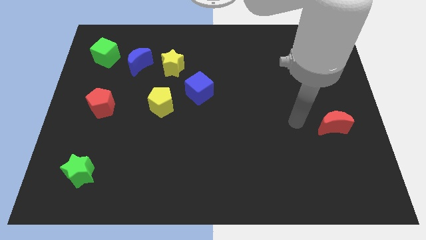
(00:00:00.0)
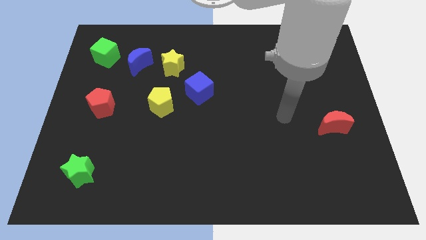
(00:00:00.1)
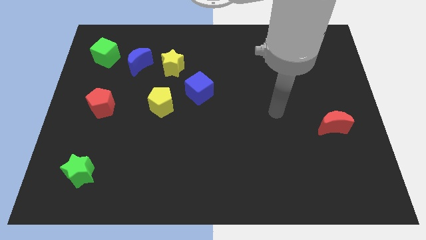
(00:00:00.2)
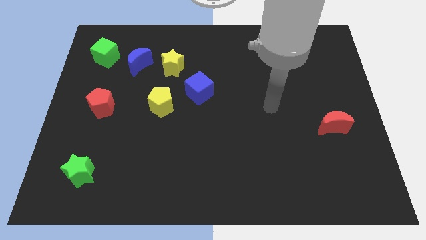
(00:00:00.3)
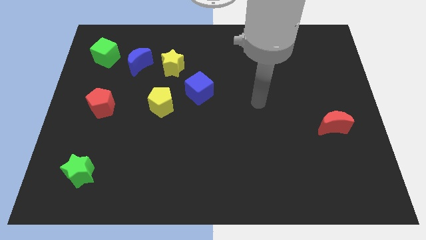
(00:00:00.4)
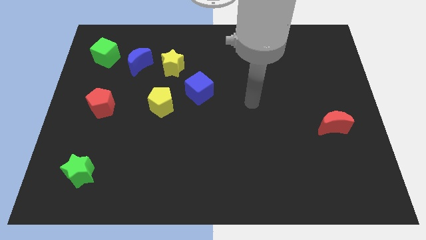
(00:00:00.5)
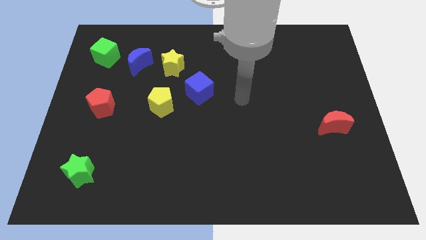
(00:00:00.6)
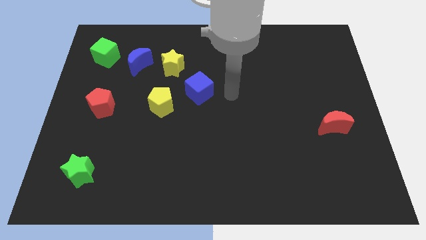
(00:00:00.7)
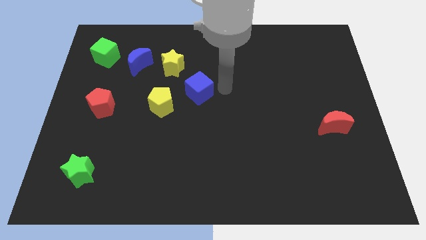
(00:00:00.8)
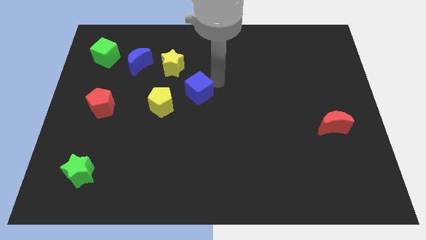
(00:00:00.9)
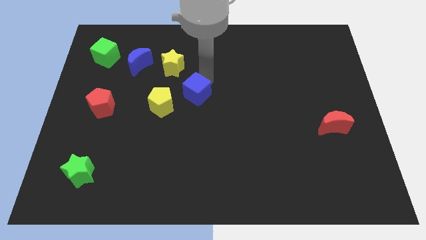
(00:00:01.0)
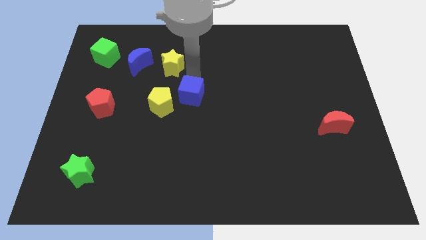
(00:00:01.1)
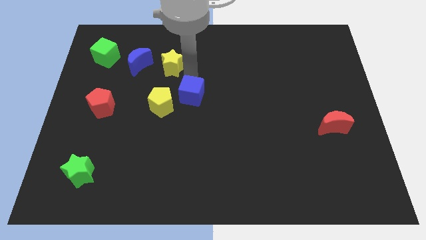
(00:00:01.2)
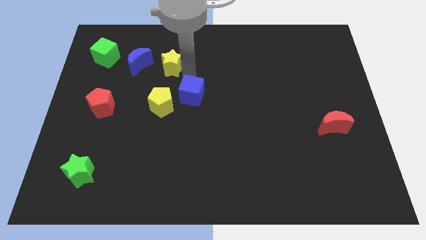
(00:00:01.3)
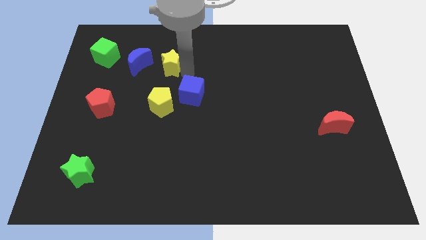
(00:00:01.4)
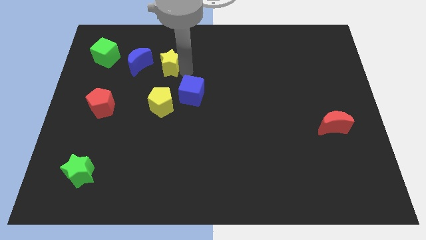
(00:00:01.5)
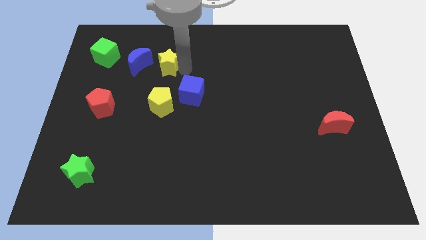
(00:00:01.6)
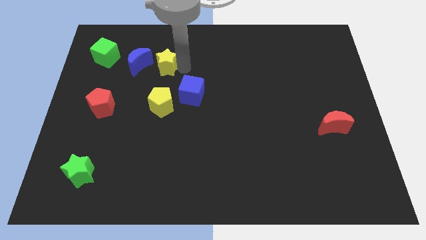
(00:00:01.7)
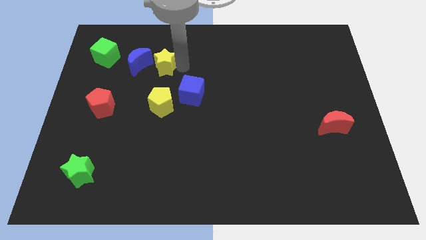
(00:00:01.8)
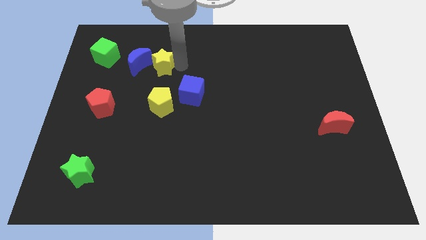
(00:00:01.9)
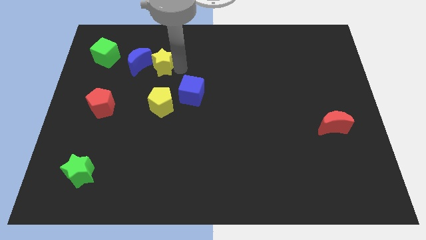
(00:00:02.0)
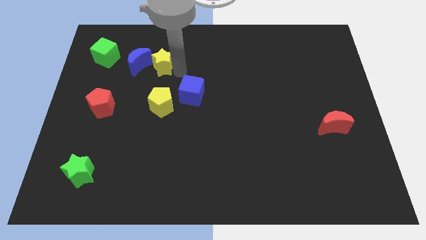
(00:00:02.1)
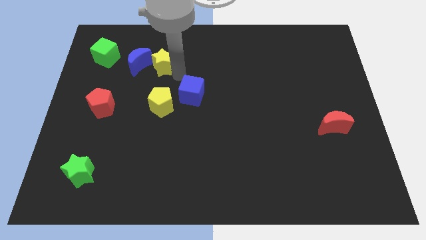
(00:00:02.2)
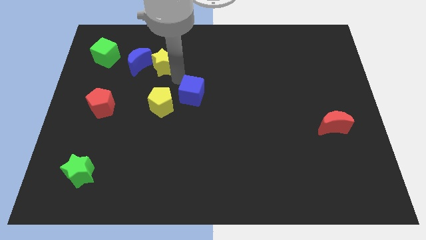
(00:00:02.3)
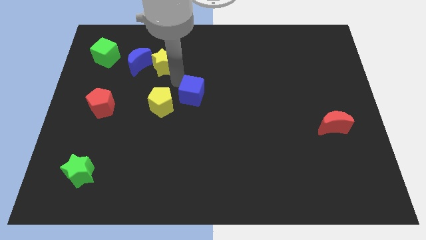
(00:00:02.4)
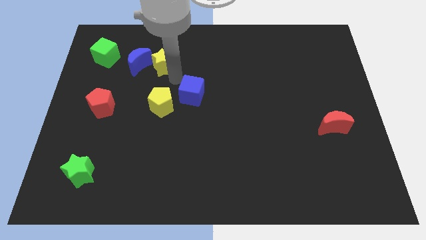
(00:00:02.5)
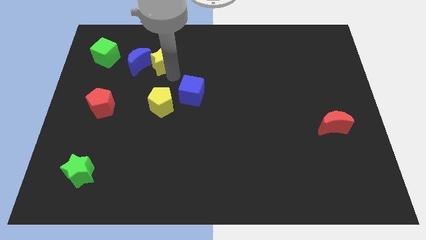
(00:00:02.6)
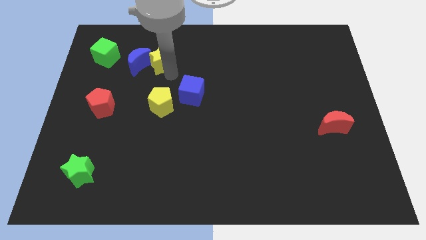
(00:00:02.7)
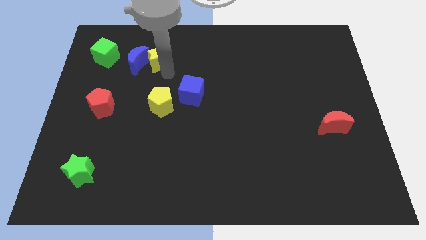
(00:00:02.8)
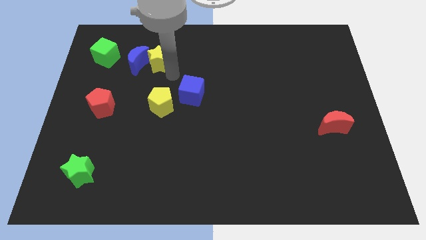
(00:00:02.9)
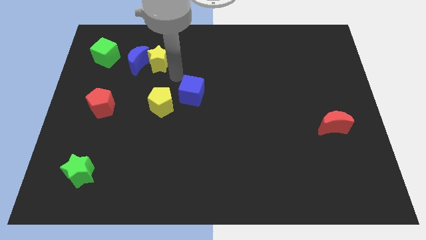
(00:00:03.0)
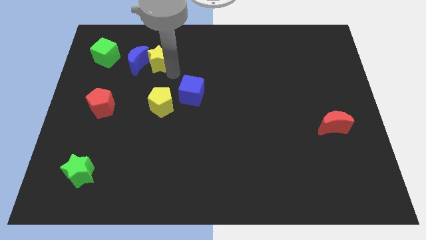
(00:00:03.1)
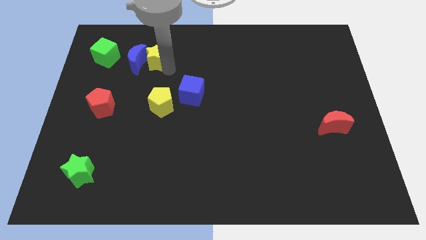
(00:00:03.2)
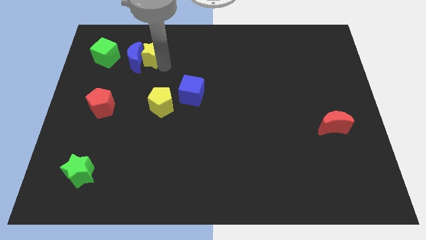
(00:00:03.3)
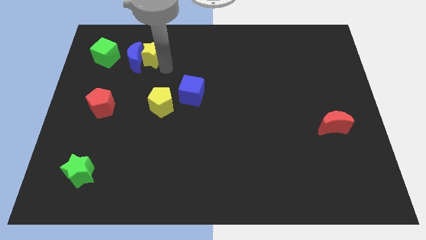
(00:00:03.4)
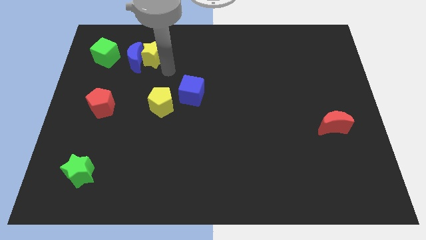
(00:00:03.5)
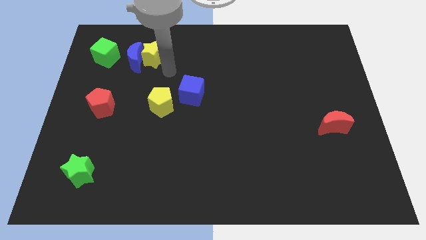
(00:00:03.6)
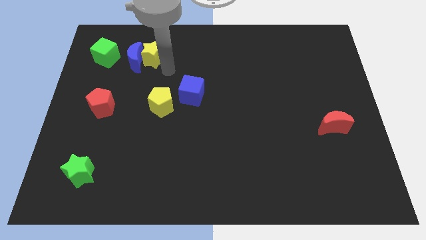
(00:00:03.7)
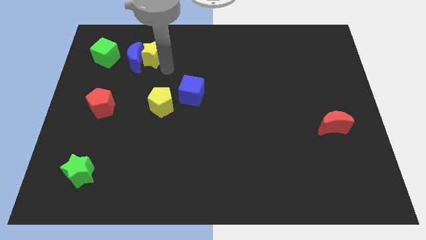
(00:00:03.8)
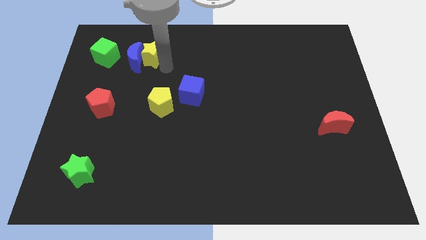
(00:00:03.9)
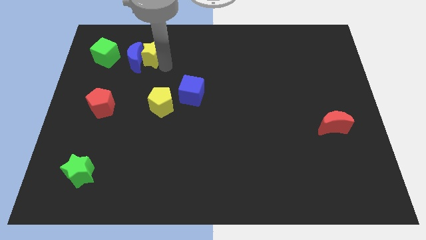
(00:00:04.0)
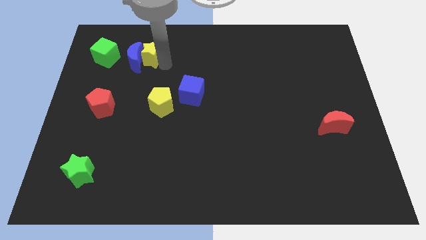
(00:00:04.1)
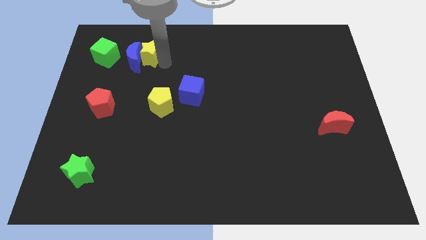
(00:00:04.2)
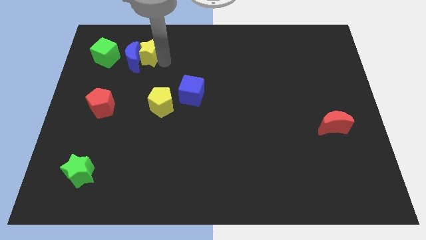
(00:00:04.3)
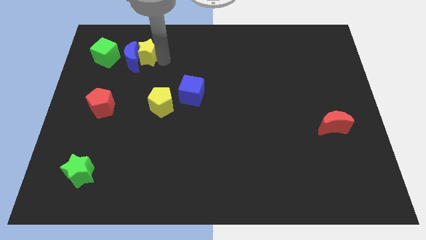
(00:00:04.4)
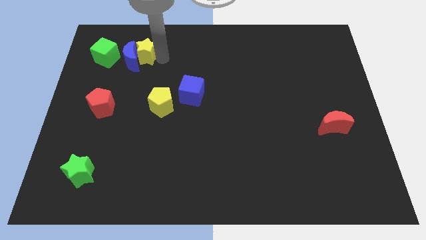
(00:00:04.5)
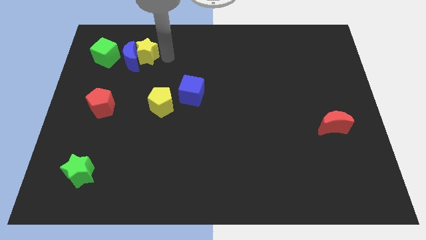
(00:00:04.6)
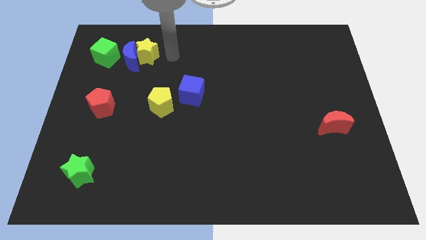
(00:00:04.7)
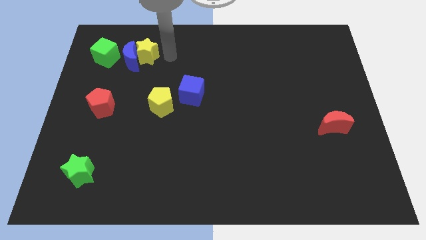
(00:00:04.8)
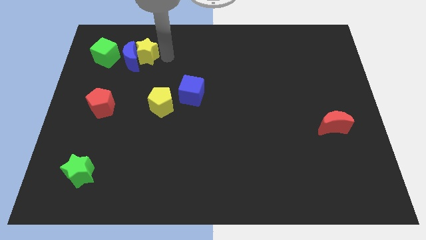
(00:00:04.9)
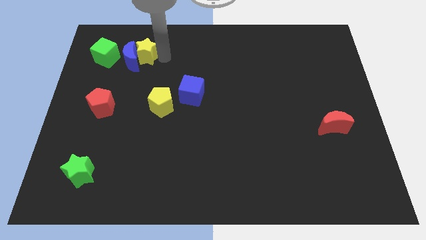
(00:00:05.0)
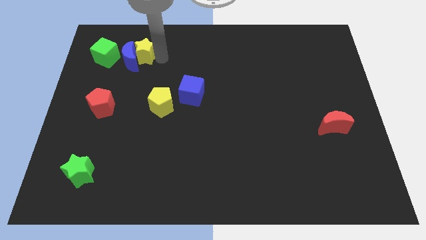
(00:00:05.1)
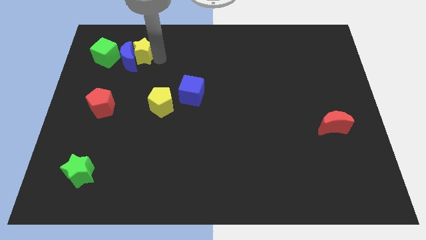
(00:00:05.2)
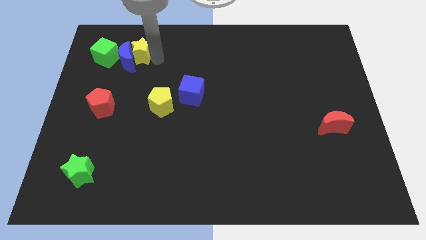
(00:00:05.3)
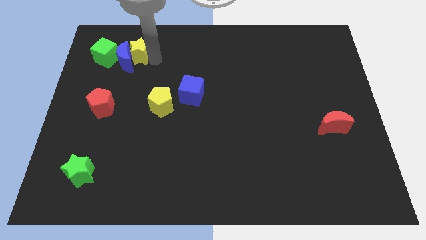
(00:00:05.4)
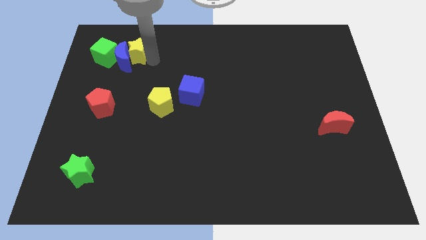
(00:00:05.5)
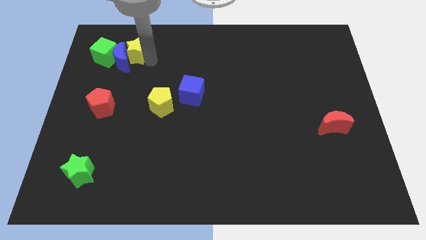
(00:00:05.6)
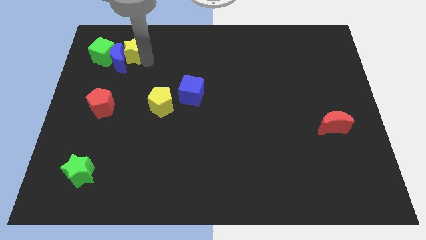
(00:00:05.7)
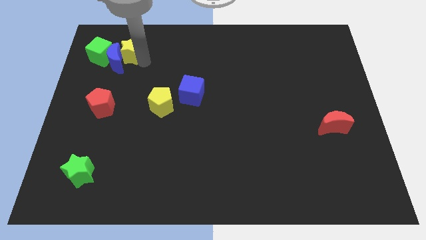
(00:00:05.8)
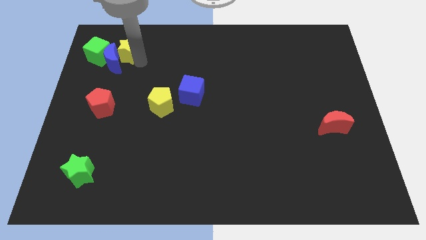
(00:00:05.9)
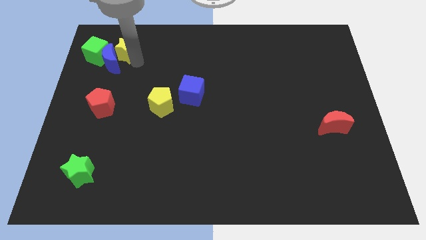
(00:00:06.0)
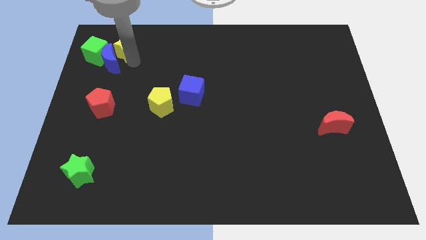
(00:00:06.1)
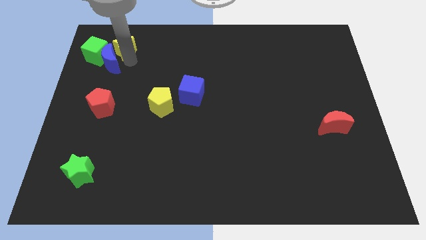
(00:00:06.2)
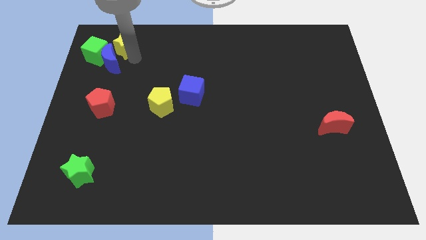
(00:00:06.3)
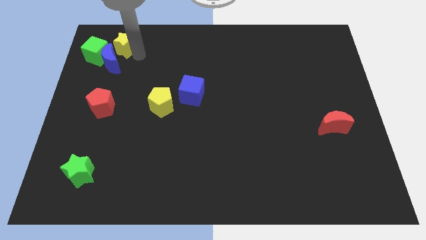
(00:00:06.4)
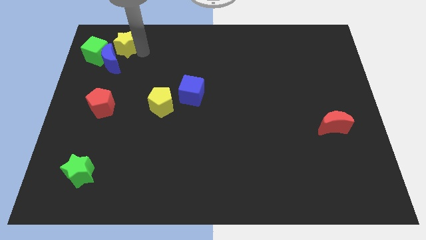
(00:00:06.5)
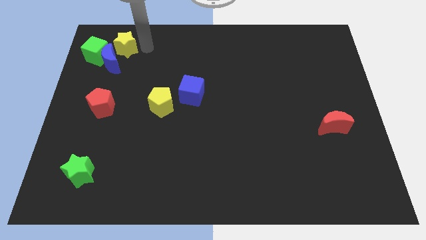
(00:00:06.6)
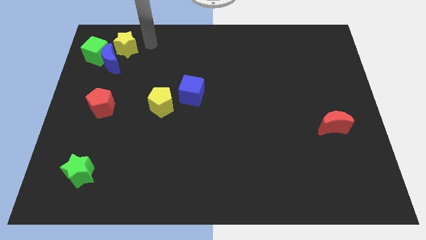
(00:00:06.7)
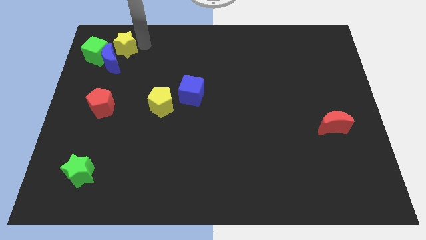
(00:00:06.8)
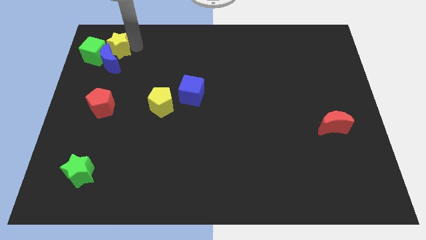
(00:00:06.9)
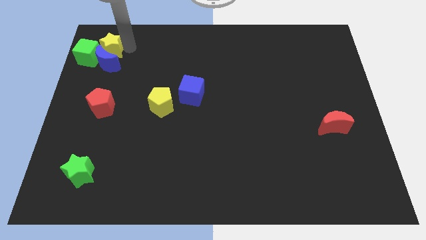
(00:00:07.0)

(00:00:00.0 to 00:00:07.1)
slide the yellow star towards the green cube

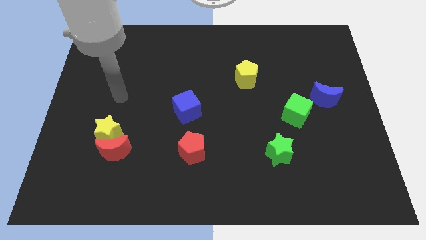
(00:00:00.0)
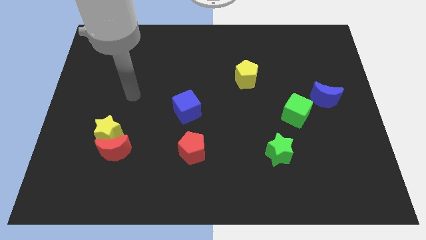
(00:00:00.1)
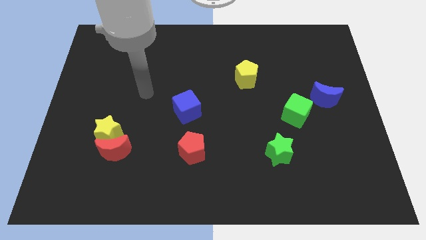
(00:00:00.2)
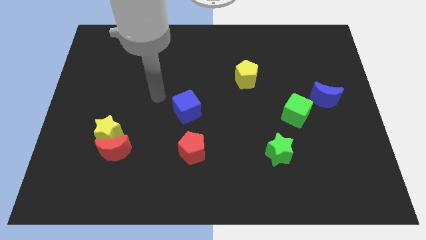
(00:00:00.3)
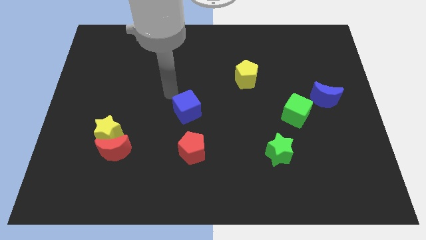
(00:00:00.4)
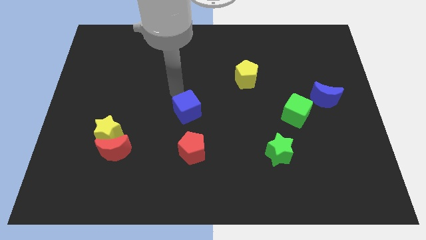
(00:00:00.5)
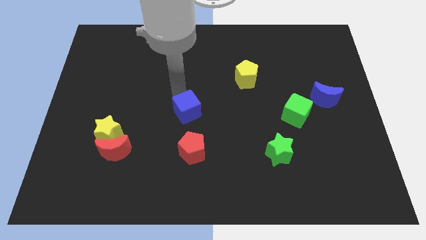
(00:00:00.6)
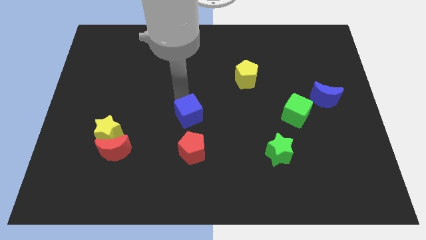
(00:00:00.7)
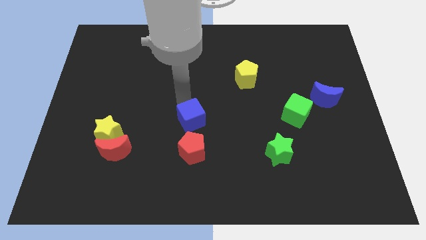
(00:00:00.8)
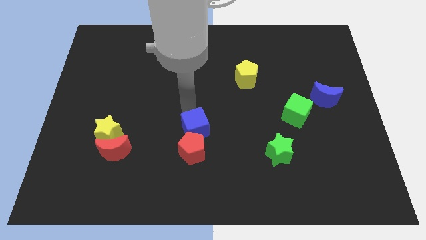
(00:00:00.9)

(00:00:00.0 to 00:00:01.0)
move the blue cube next to the red pentagon
